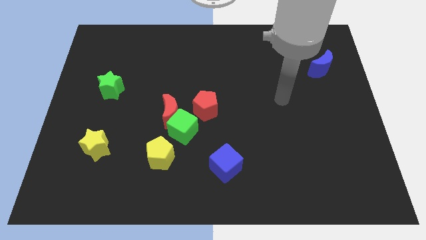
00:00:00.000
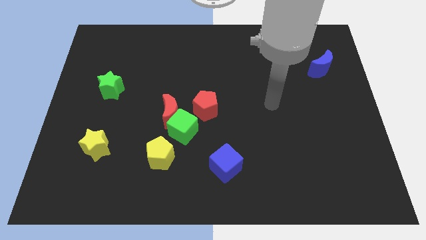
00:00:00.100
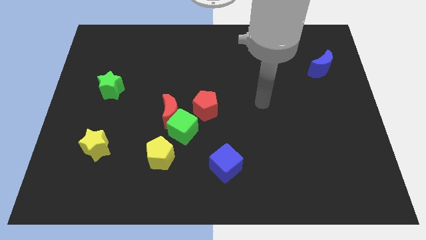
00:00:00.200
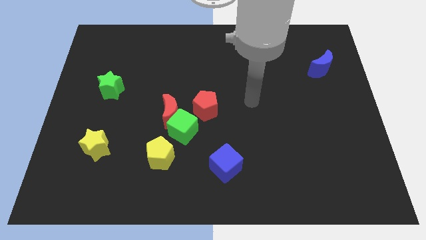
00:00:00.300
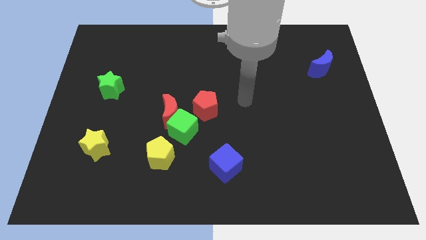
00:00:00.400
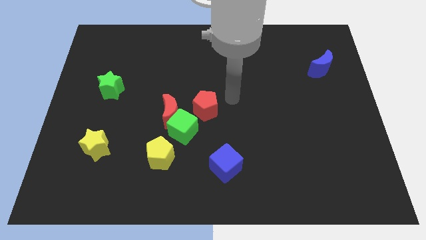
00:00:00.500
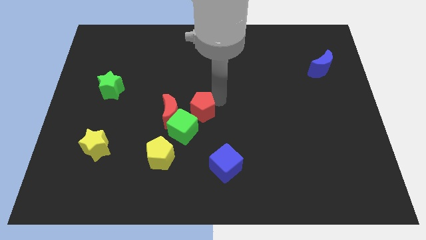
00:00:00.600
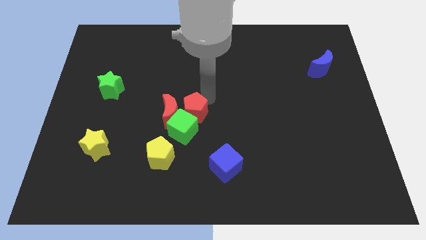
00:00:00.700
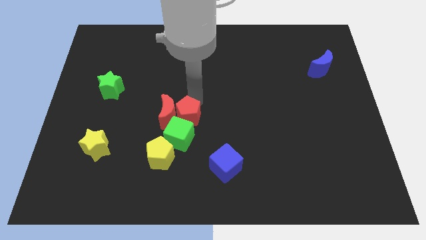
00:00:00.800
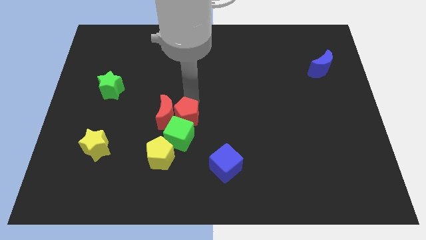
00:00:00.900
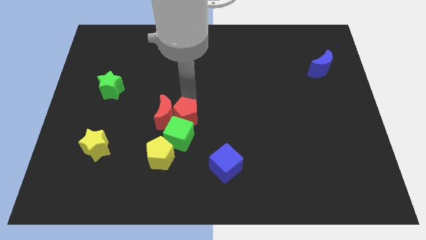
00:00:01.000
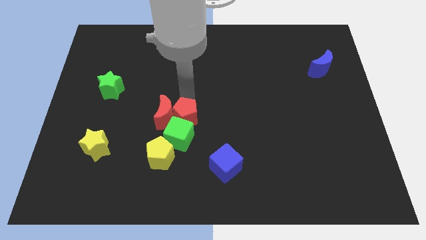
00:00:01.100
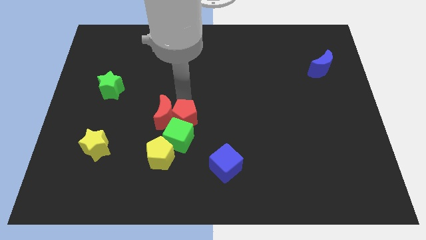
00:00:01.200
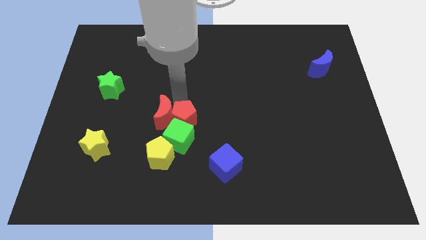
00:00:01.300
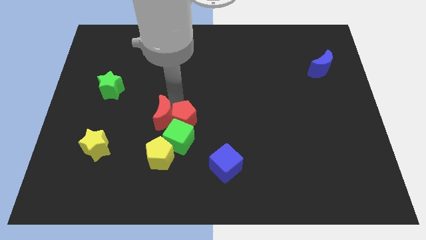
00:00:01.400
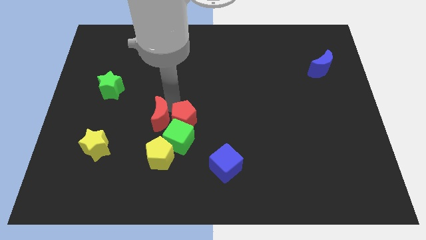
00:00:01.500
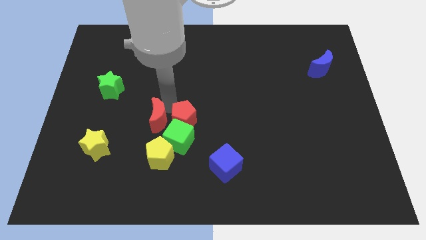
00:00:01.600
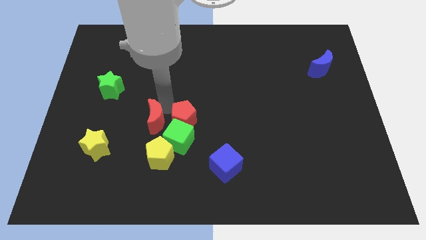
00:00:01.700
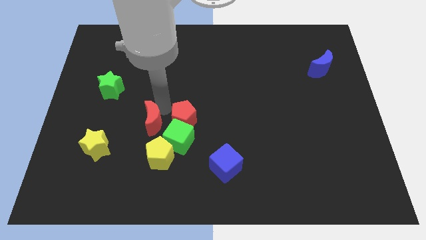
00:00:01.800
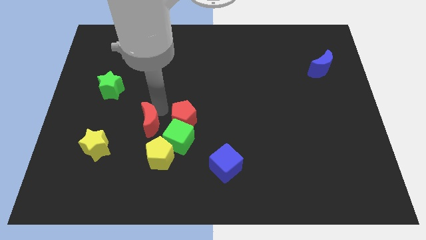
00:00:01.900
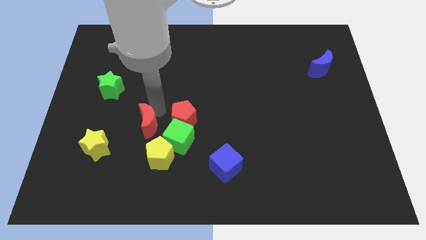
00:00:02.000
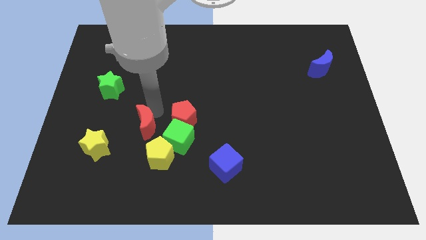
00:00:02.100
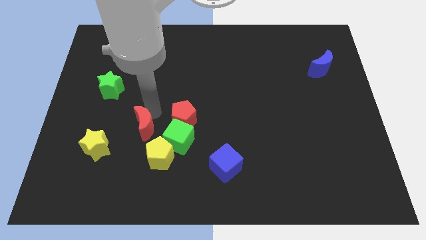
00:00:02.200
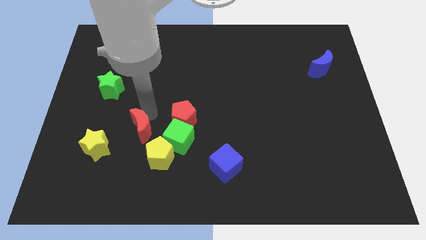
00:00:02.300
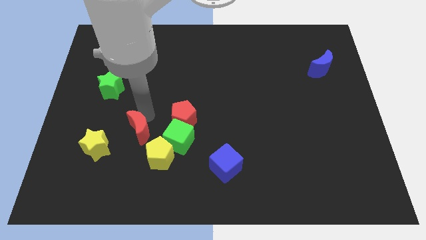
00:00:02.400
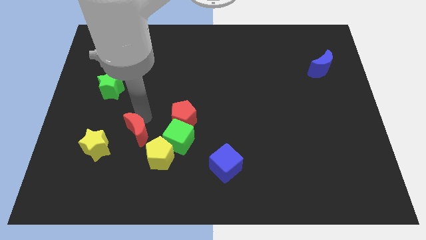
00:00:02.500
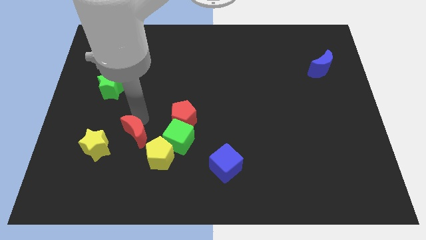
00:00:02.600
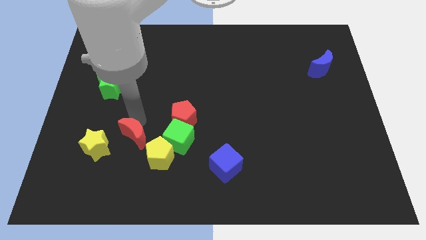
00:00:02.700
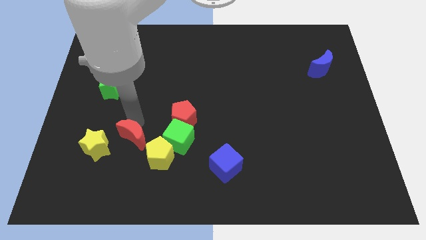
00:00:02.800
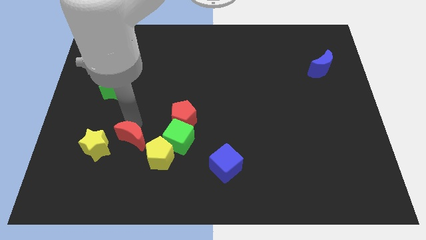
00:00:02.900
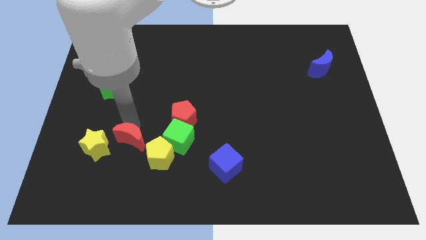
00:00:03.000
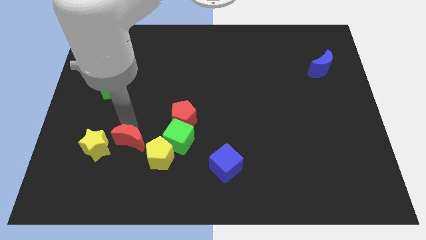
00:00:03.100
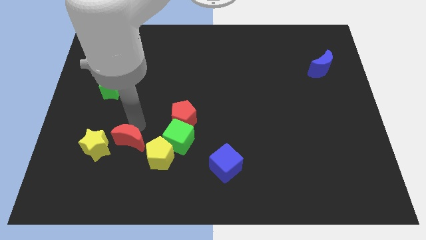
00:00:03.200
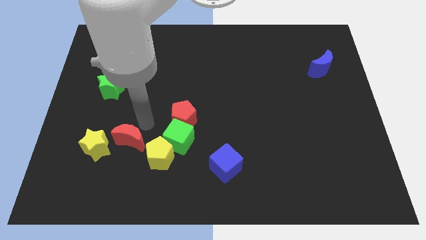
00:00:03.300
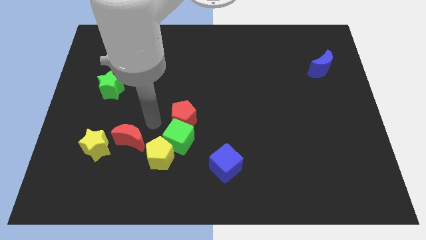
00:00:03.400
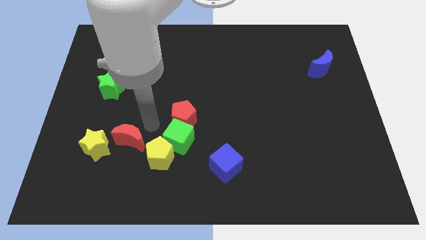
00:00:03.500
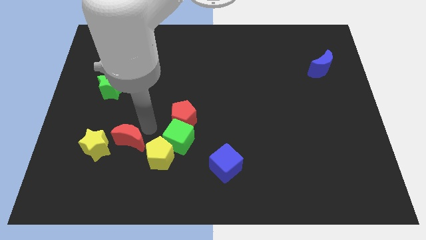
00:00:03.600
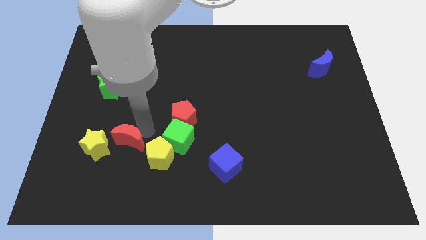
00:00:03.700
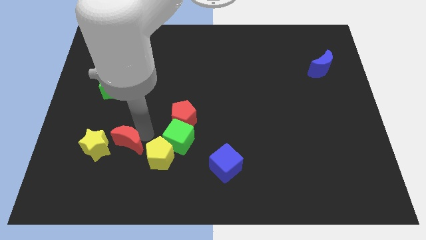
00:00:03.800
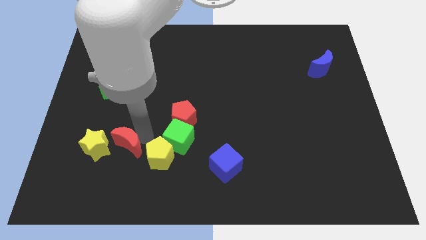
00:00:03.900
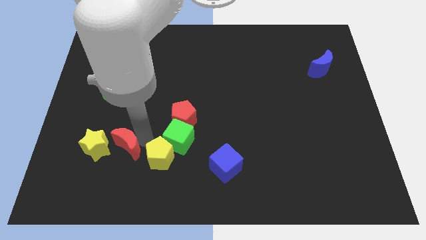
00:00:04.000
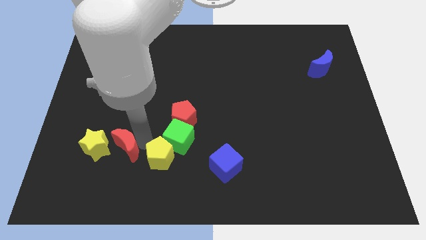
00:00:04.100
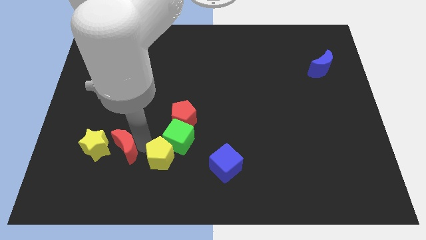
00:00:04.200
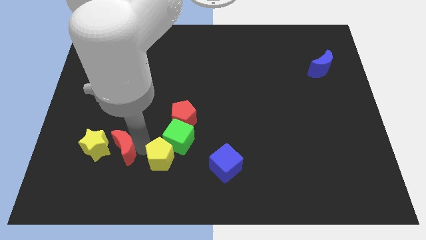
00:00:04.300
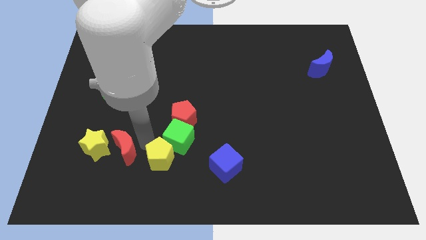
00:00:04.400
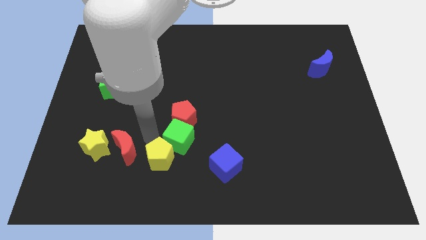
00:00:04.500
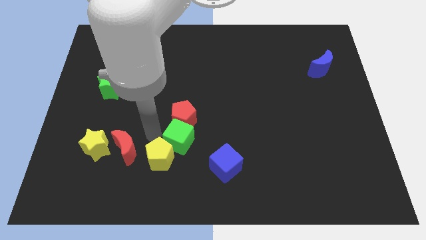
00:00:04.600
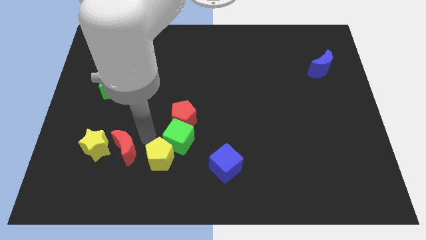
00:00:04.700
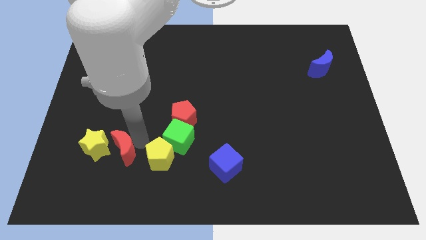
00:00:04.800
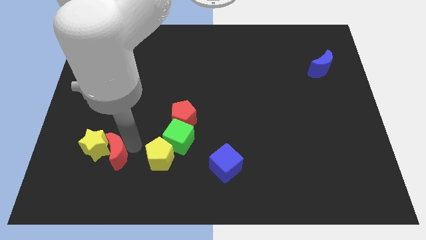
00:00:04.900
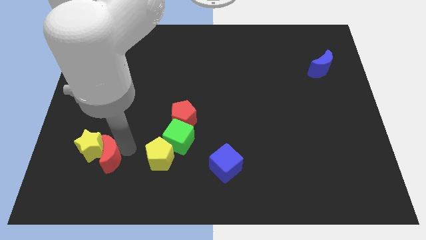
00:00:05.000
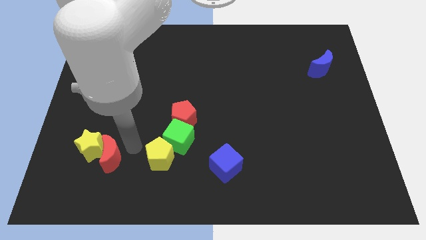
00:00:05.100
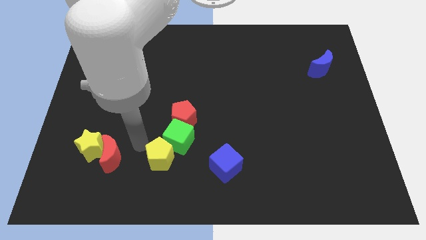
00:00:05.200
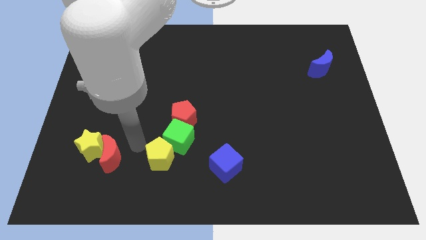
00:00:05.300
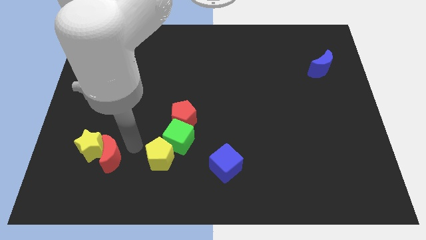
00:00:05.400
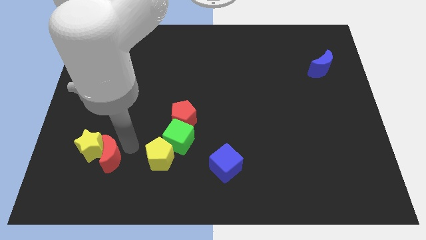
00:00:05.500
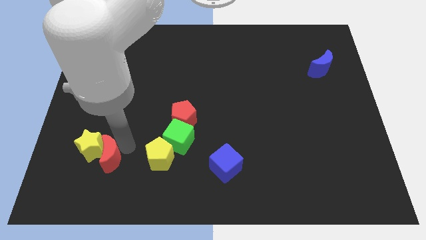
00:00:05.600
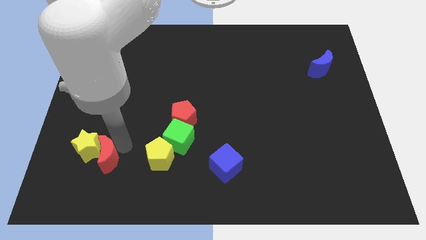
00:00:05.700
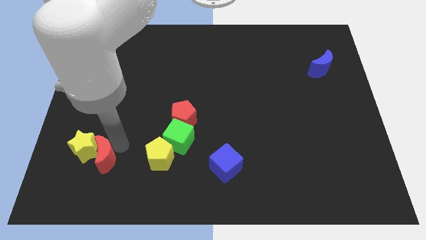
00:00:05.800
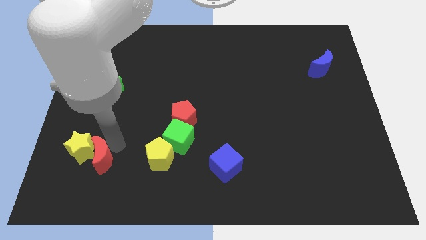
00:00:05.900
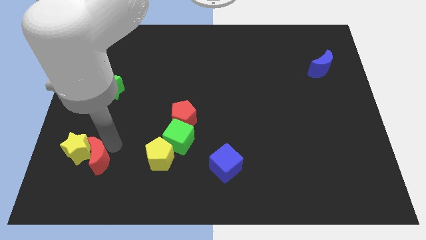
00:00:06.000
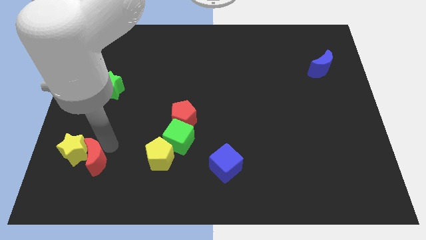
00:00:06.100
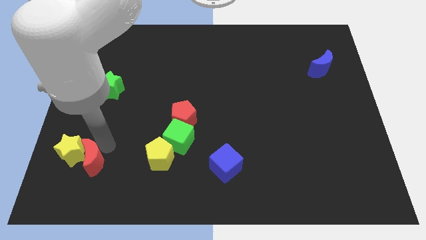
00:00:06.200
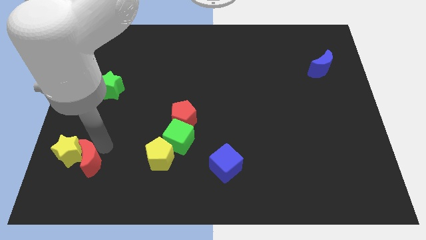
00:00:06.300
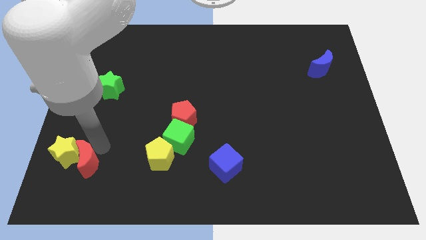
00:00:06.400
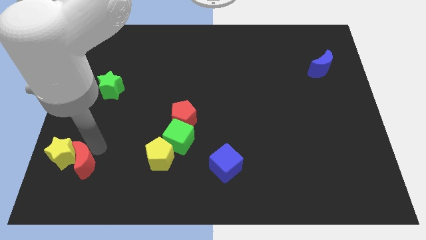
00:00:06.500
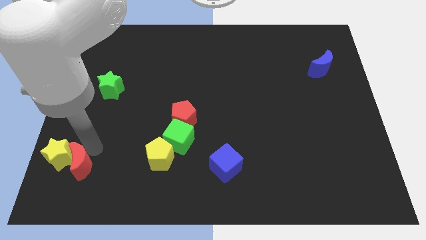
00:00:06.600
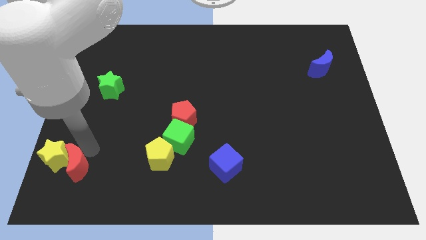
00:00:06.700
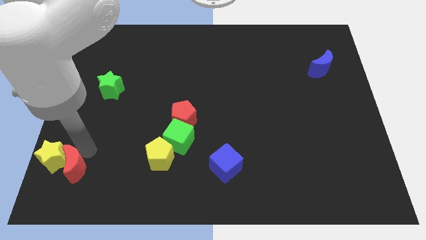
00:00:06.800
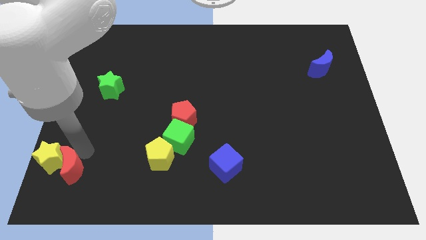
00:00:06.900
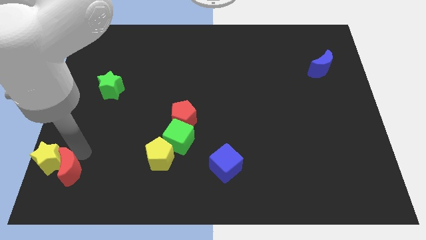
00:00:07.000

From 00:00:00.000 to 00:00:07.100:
put the red moon to the bottom left corner
